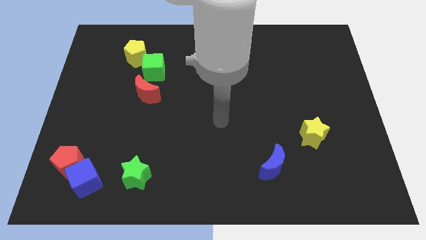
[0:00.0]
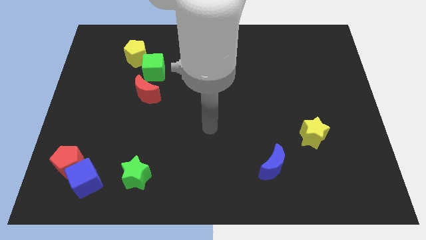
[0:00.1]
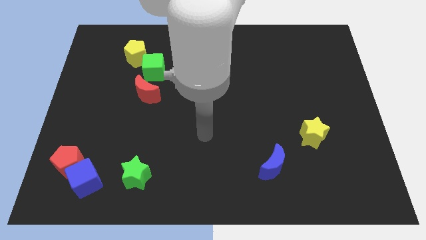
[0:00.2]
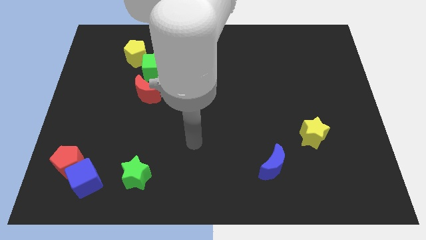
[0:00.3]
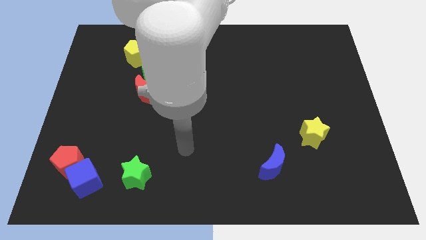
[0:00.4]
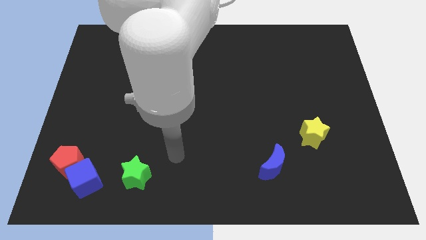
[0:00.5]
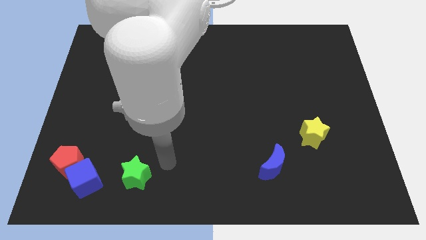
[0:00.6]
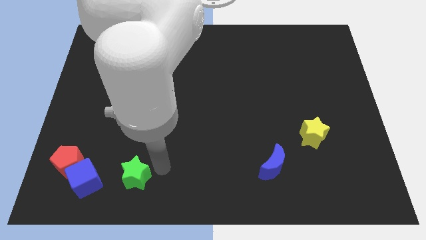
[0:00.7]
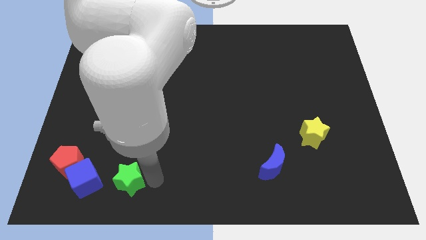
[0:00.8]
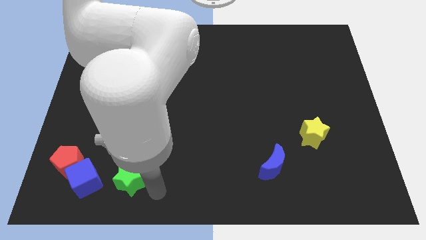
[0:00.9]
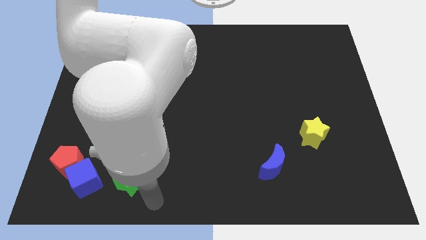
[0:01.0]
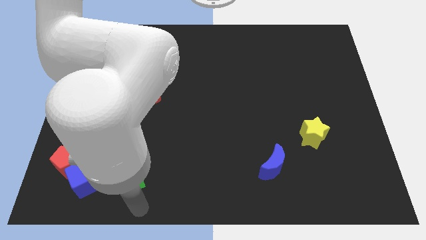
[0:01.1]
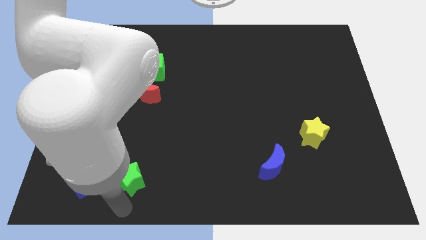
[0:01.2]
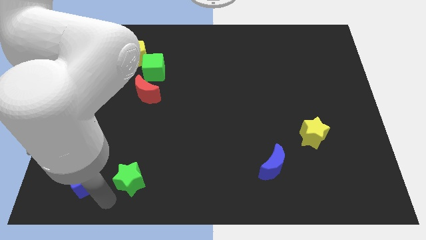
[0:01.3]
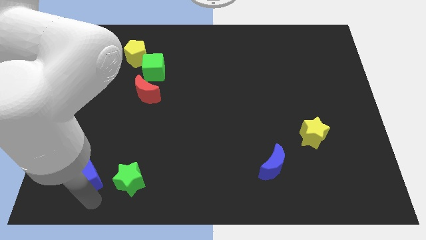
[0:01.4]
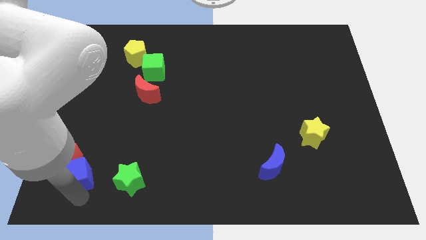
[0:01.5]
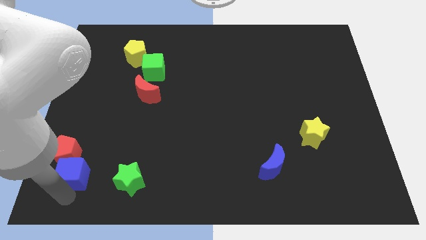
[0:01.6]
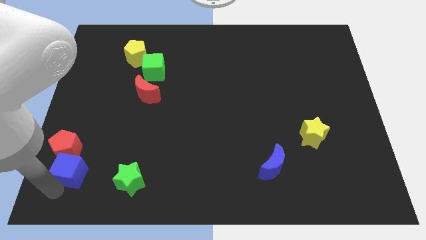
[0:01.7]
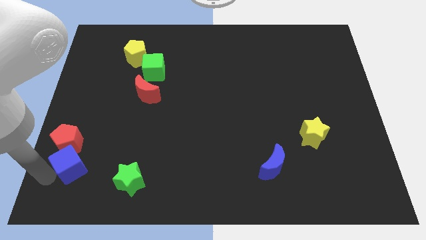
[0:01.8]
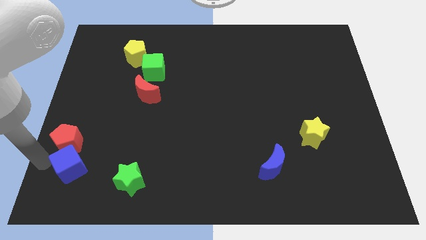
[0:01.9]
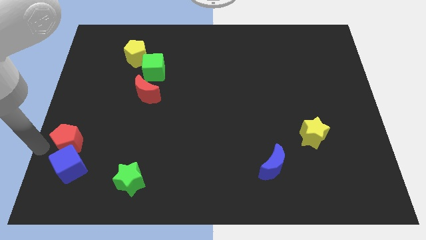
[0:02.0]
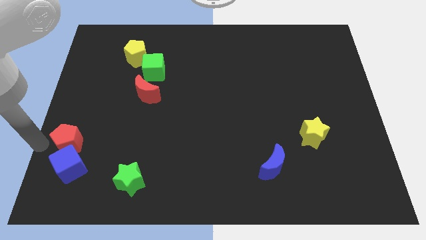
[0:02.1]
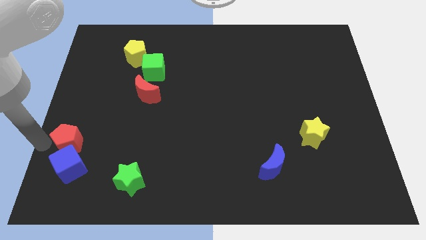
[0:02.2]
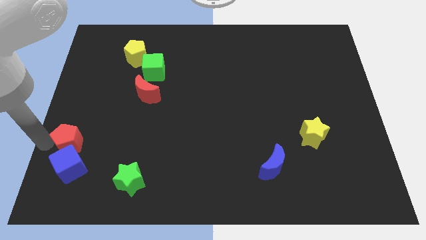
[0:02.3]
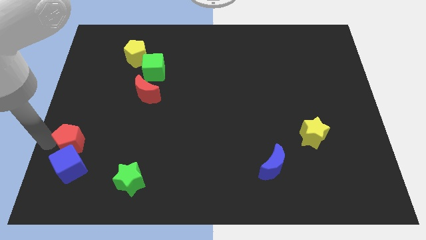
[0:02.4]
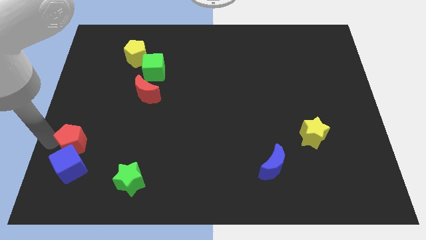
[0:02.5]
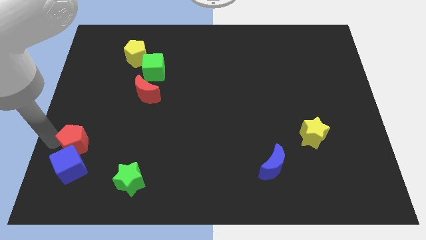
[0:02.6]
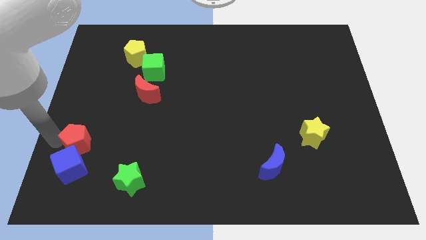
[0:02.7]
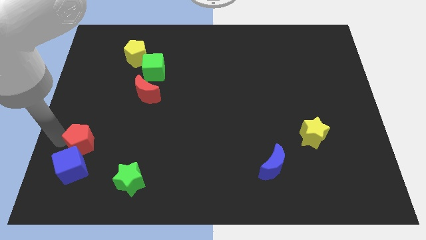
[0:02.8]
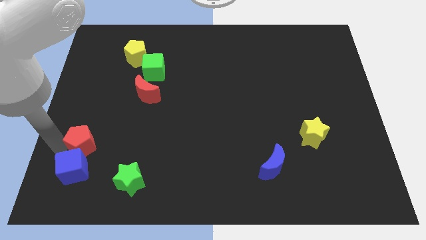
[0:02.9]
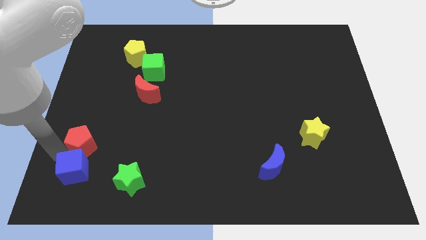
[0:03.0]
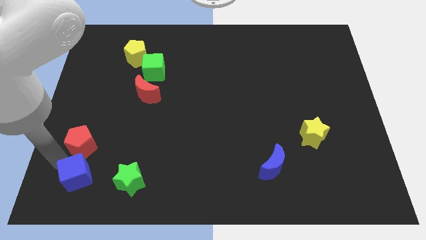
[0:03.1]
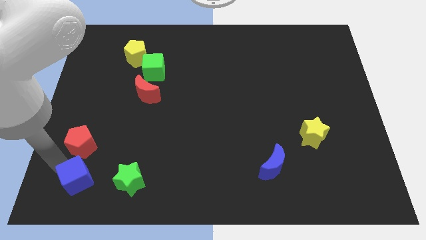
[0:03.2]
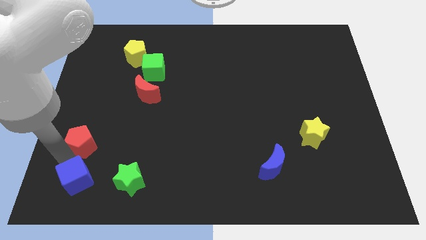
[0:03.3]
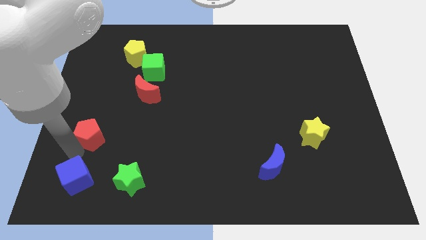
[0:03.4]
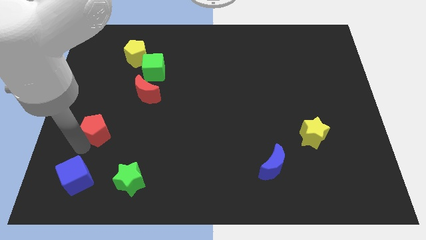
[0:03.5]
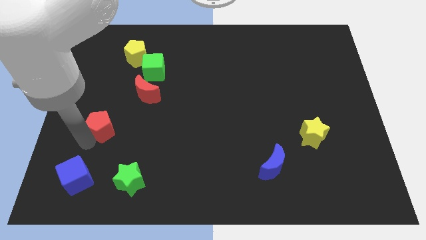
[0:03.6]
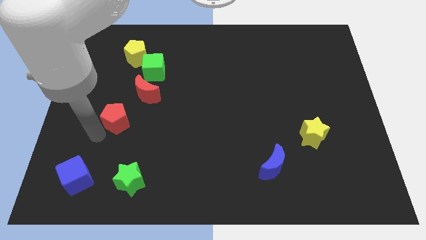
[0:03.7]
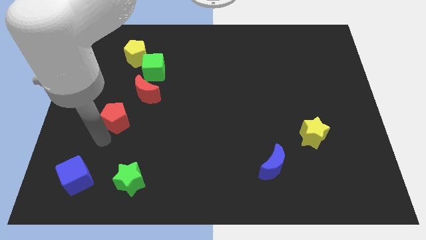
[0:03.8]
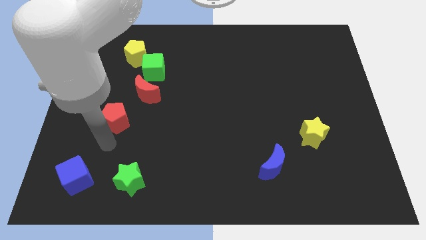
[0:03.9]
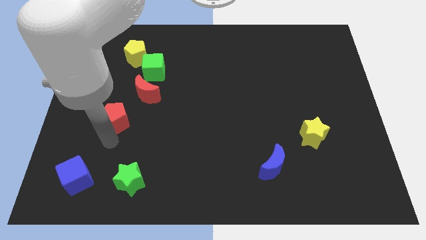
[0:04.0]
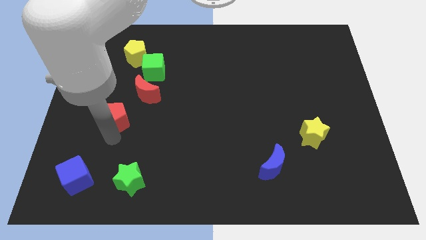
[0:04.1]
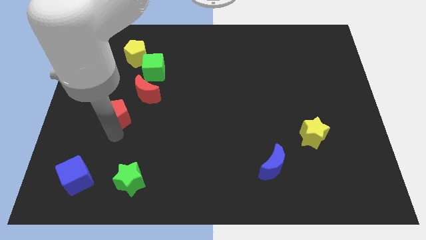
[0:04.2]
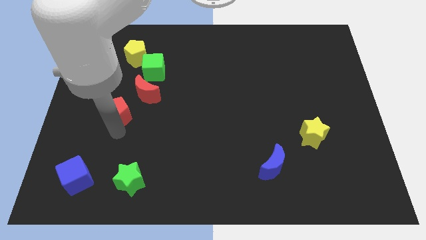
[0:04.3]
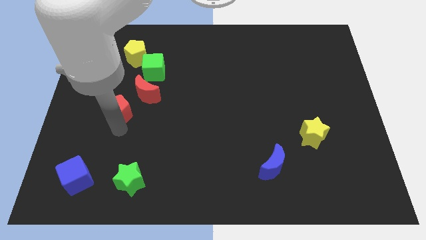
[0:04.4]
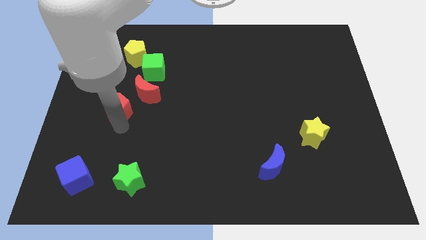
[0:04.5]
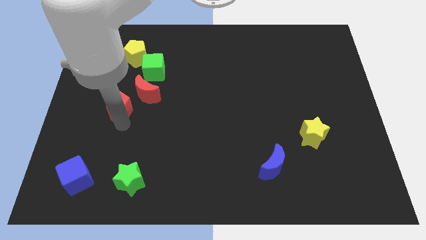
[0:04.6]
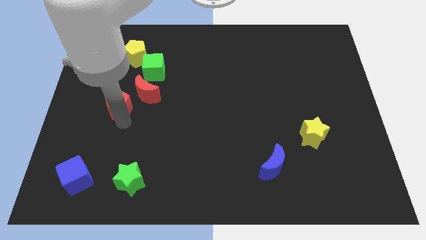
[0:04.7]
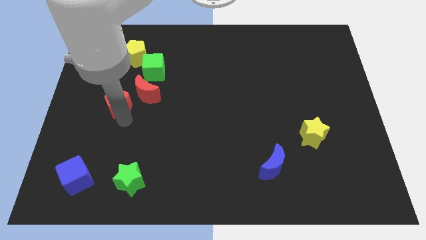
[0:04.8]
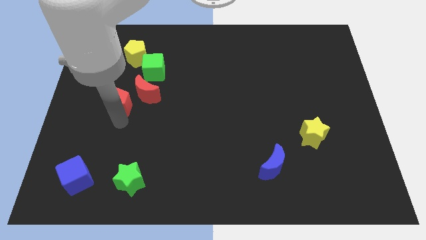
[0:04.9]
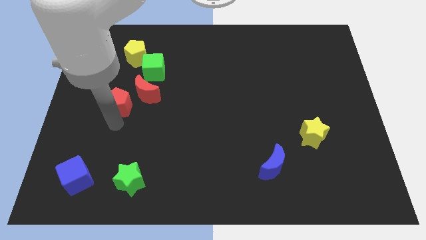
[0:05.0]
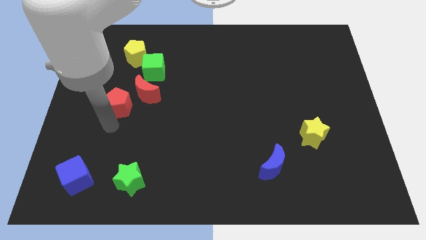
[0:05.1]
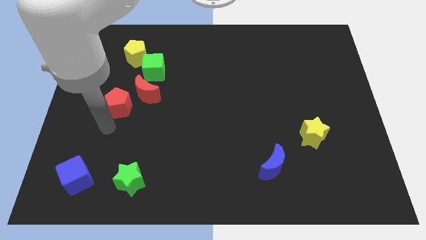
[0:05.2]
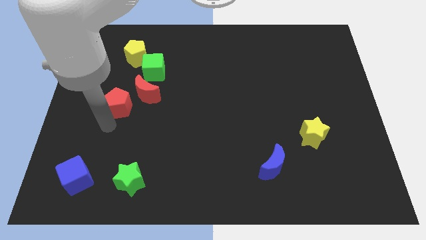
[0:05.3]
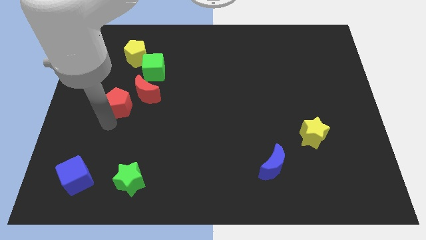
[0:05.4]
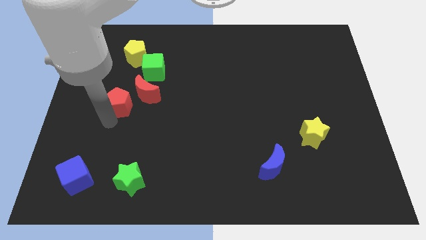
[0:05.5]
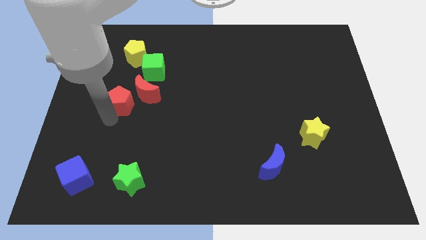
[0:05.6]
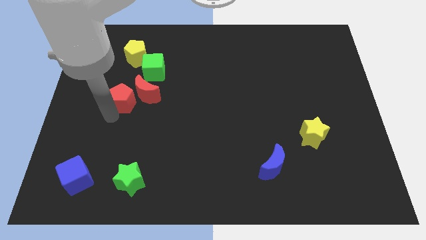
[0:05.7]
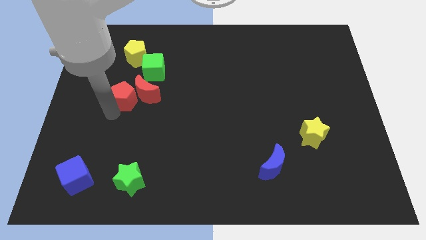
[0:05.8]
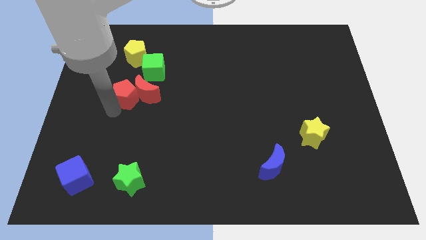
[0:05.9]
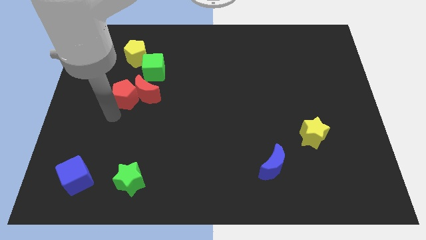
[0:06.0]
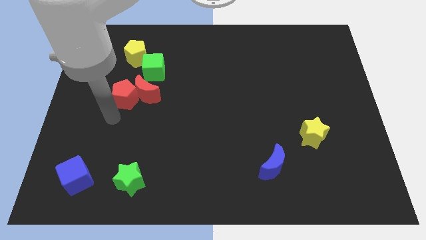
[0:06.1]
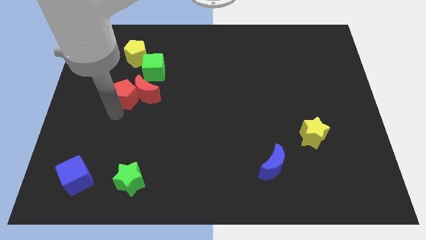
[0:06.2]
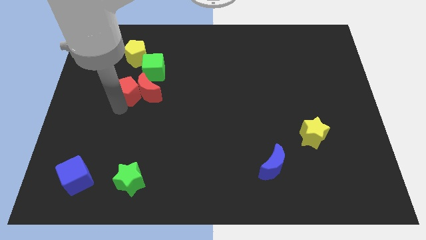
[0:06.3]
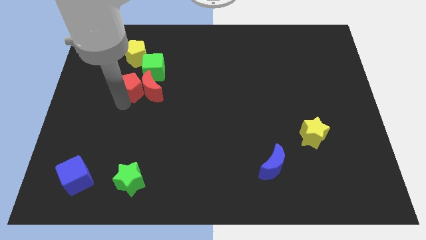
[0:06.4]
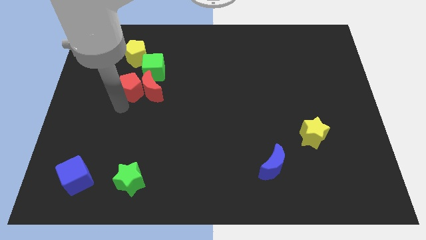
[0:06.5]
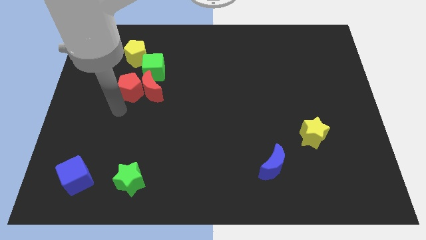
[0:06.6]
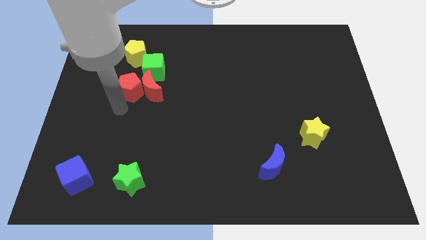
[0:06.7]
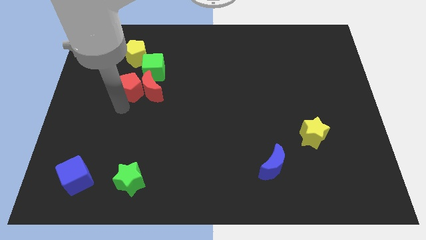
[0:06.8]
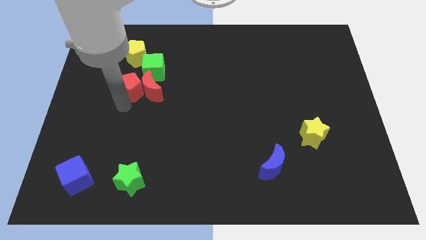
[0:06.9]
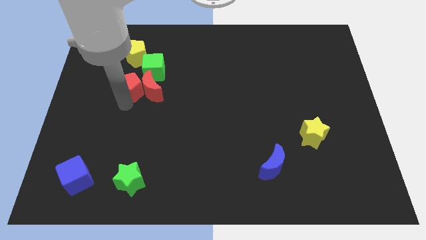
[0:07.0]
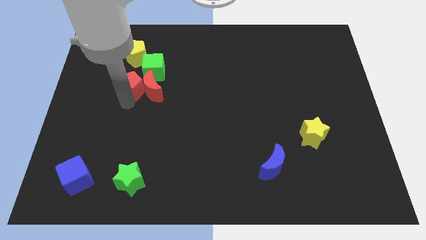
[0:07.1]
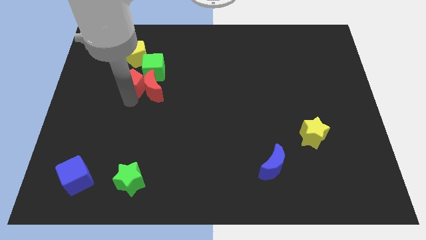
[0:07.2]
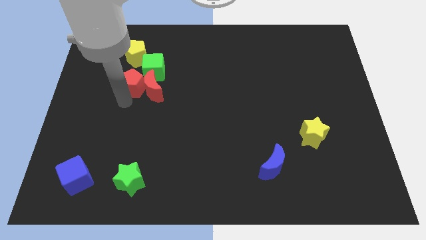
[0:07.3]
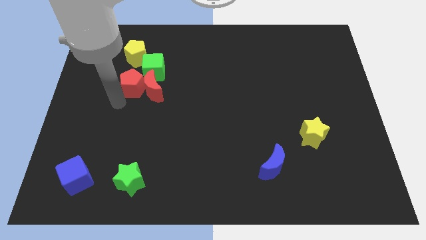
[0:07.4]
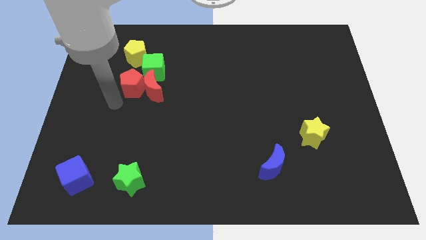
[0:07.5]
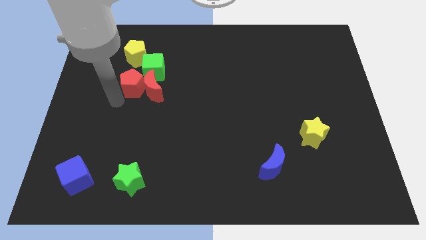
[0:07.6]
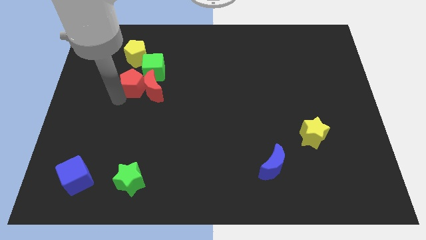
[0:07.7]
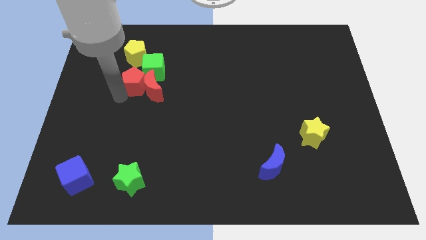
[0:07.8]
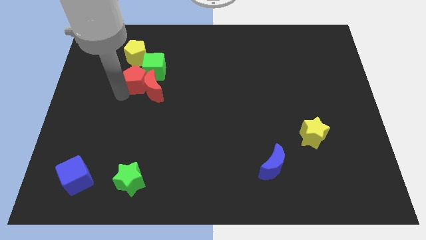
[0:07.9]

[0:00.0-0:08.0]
put the red pentagon close to the green cube
